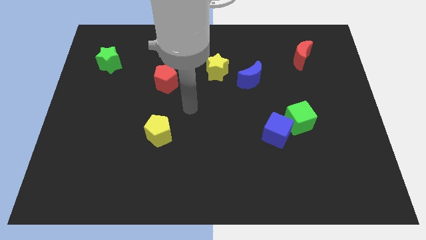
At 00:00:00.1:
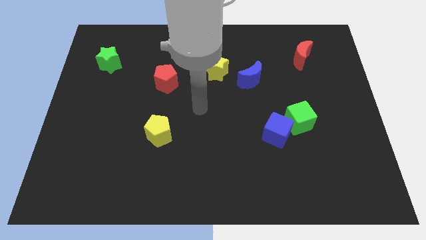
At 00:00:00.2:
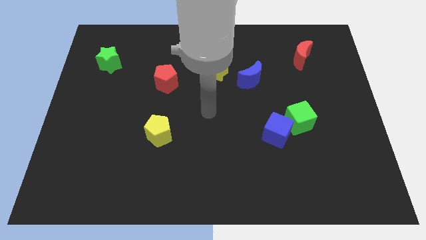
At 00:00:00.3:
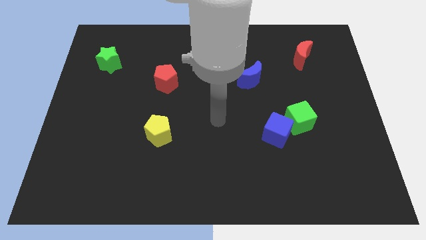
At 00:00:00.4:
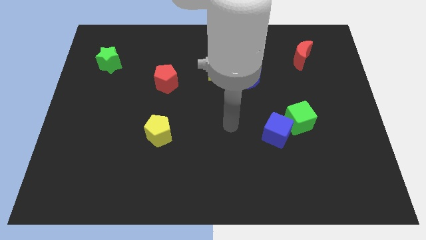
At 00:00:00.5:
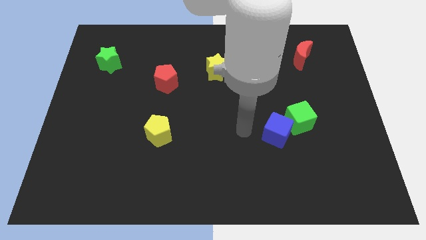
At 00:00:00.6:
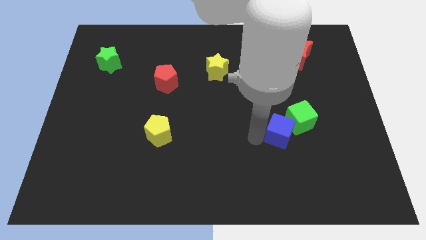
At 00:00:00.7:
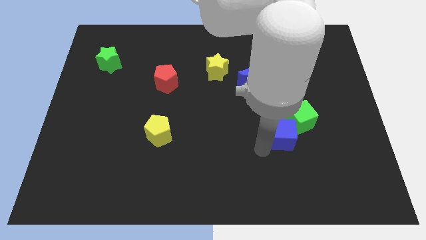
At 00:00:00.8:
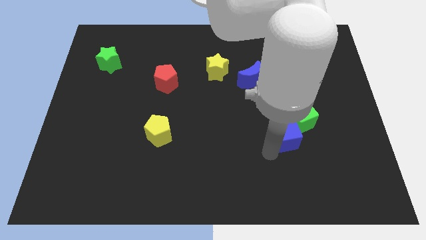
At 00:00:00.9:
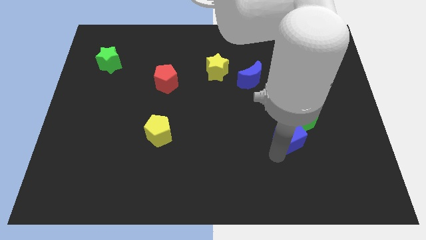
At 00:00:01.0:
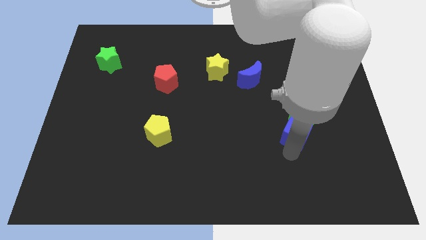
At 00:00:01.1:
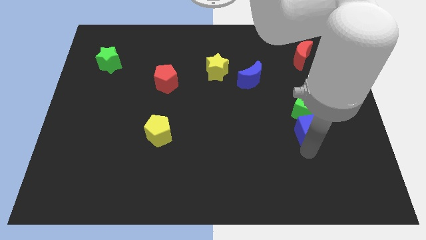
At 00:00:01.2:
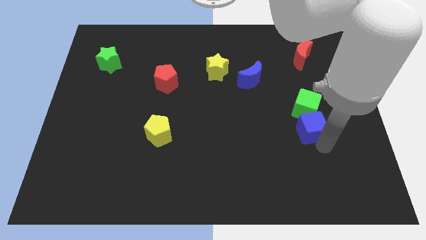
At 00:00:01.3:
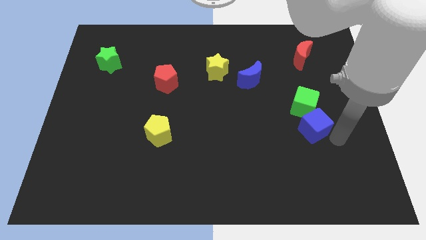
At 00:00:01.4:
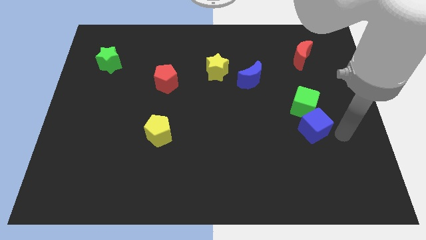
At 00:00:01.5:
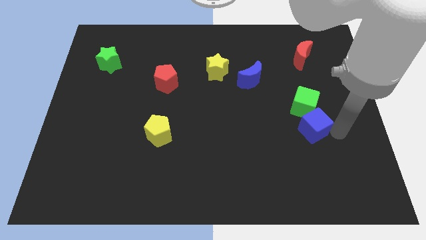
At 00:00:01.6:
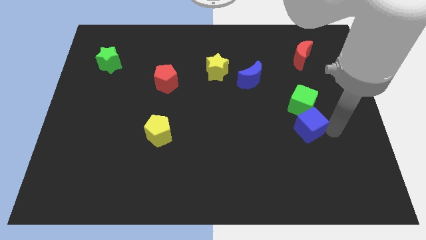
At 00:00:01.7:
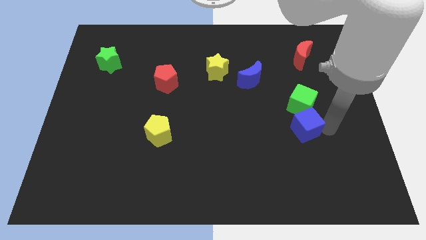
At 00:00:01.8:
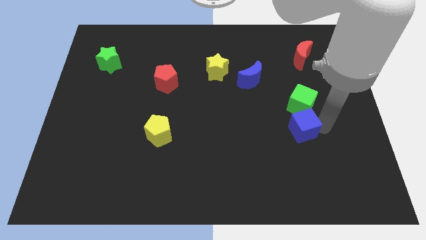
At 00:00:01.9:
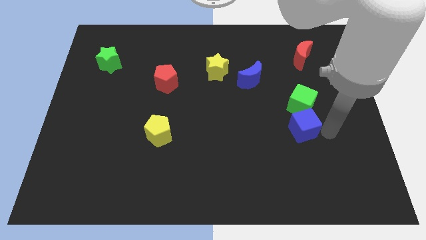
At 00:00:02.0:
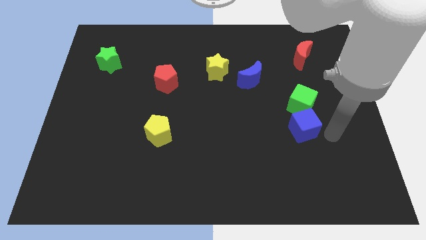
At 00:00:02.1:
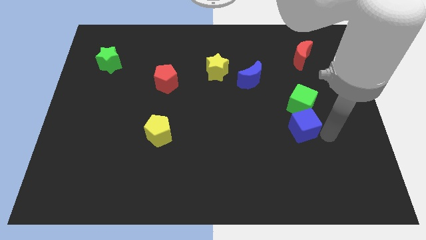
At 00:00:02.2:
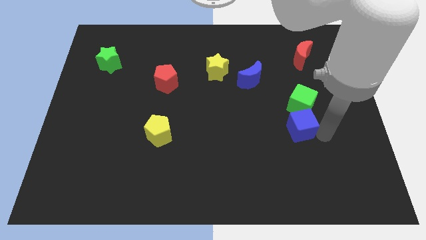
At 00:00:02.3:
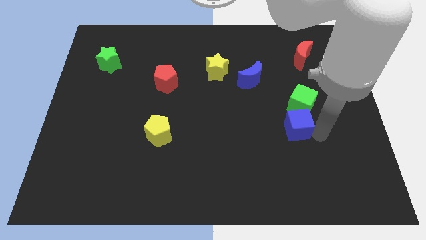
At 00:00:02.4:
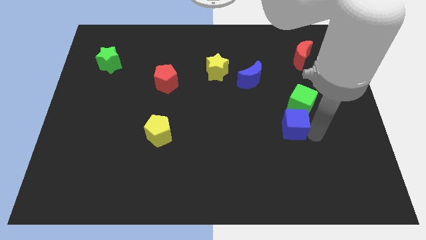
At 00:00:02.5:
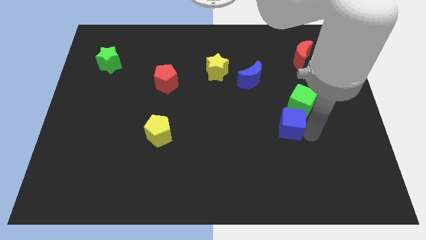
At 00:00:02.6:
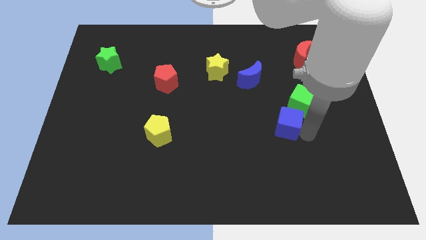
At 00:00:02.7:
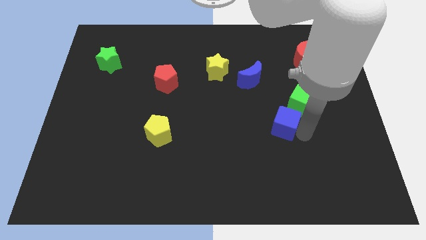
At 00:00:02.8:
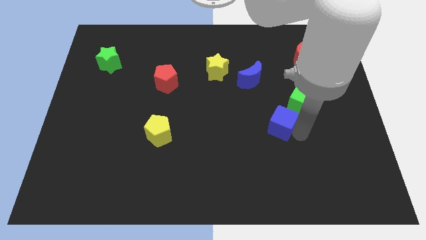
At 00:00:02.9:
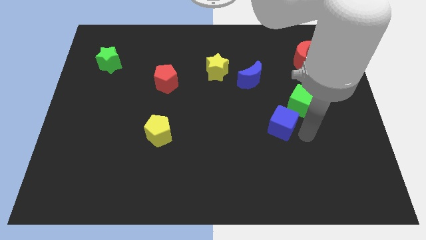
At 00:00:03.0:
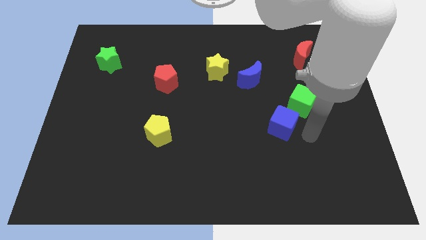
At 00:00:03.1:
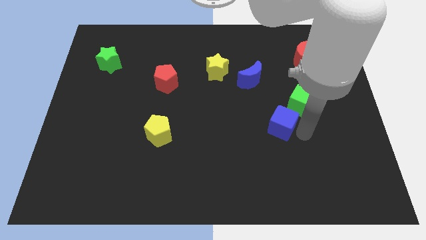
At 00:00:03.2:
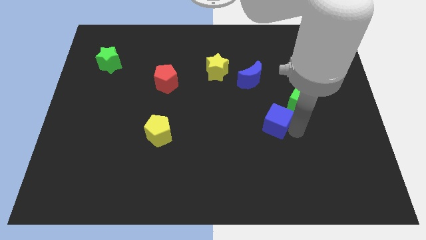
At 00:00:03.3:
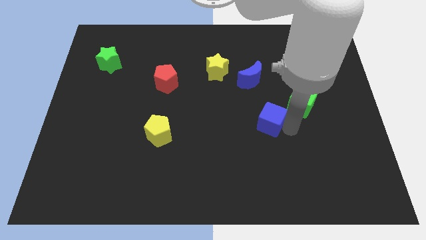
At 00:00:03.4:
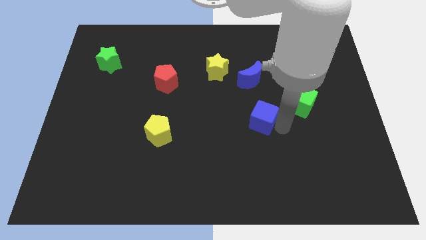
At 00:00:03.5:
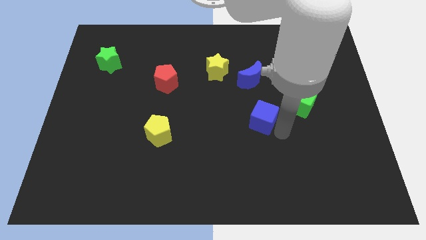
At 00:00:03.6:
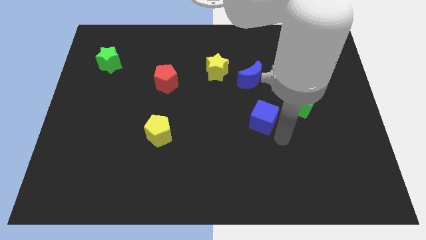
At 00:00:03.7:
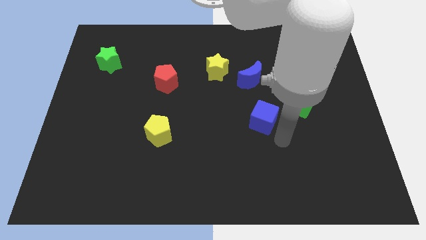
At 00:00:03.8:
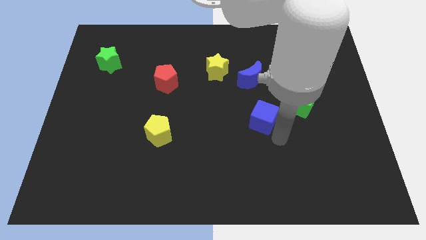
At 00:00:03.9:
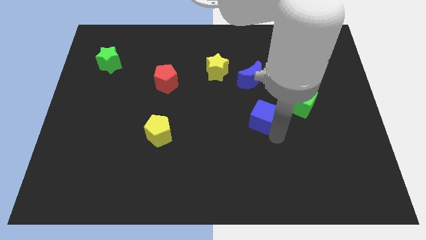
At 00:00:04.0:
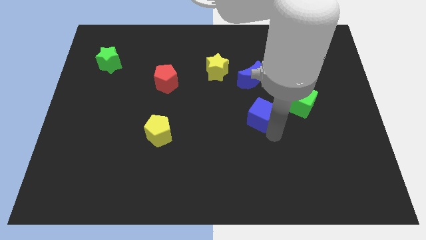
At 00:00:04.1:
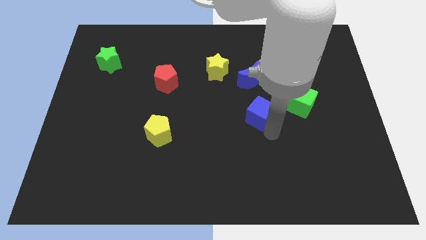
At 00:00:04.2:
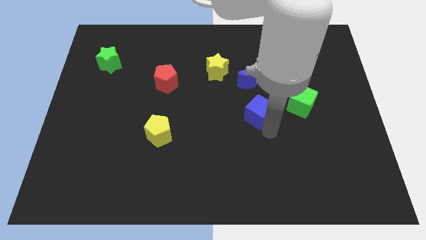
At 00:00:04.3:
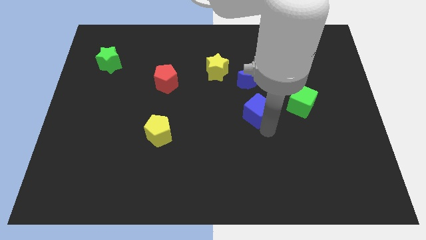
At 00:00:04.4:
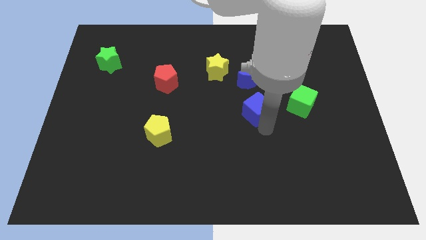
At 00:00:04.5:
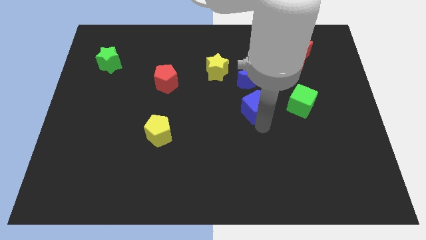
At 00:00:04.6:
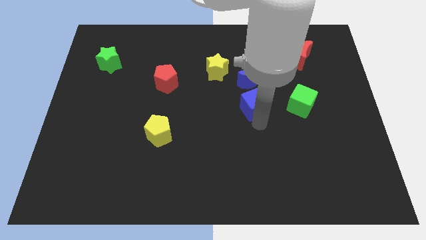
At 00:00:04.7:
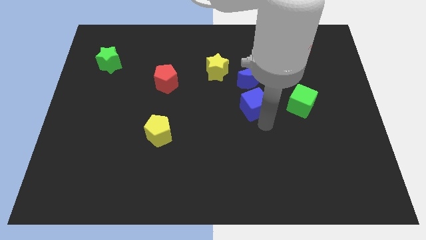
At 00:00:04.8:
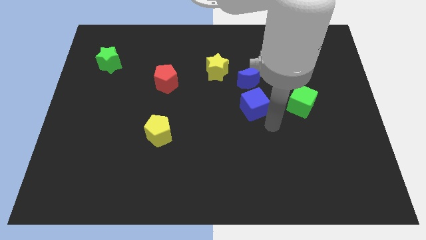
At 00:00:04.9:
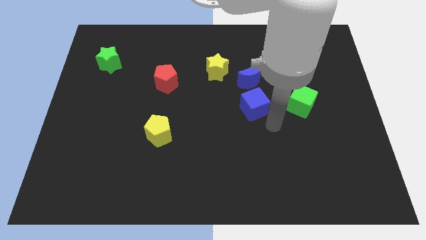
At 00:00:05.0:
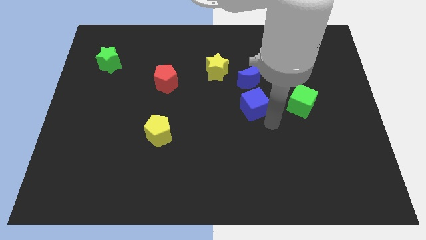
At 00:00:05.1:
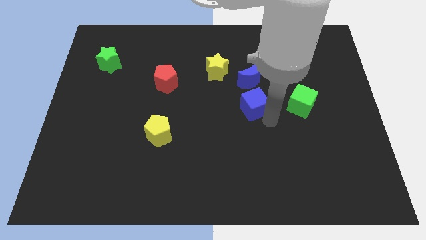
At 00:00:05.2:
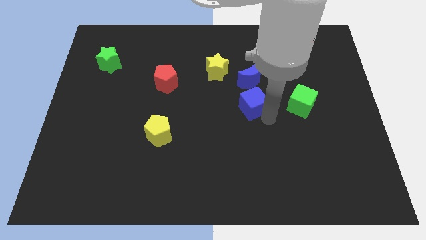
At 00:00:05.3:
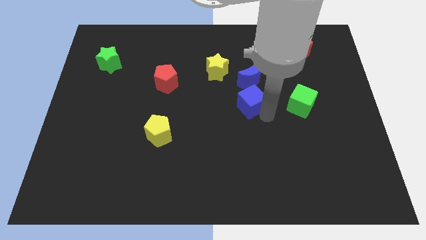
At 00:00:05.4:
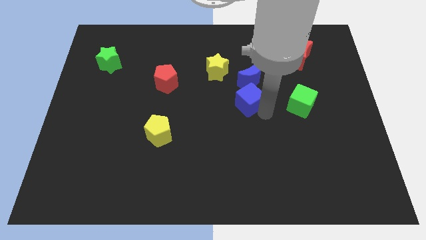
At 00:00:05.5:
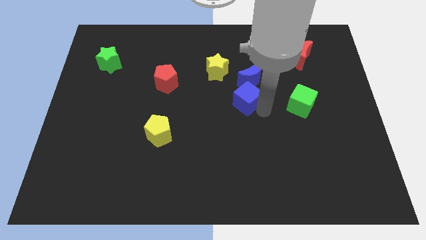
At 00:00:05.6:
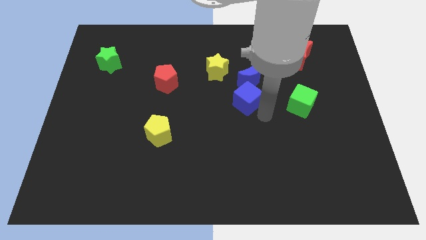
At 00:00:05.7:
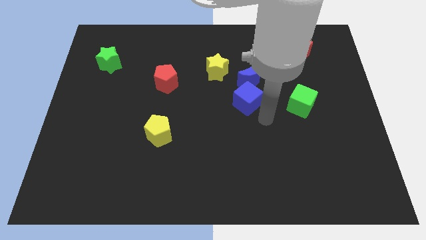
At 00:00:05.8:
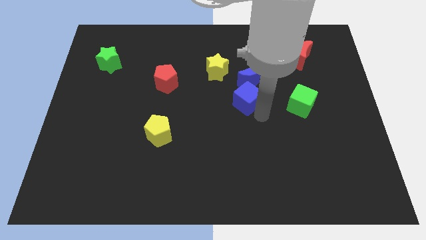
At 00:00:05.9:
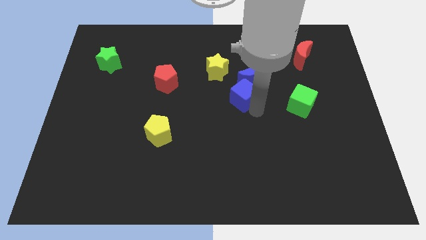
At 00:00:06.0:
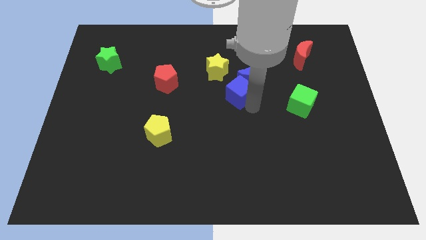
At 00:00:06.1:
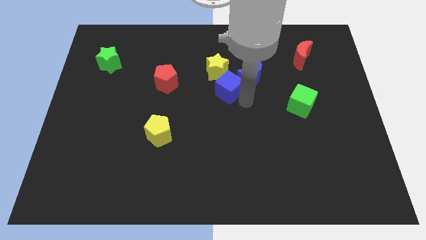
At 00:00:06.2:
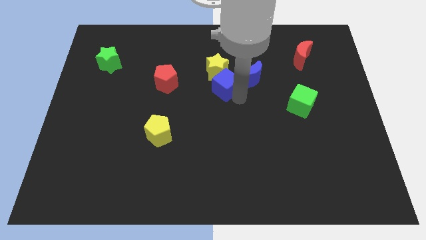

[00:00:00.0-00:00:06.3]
put the blue cube towards the yellow star

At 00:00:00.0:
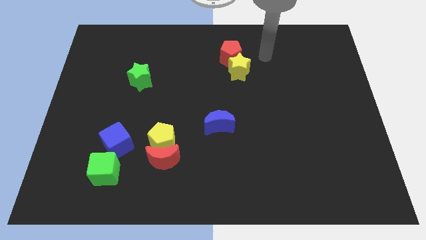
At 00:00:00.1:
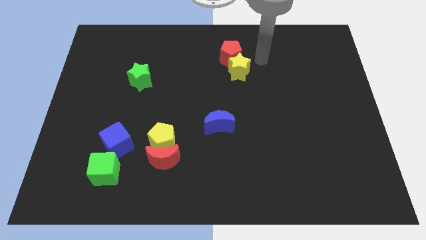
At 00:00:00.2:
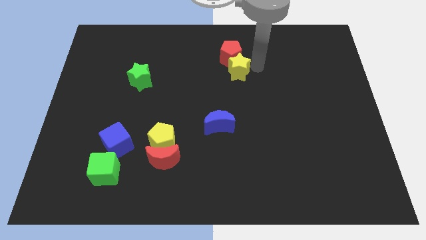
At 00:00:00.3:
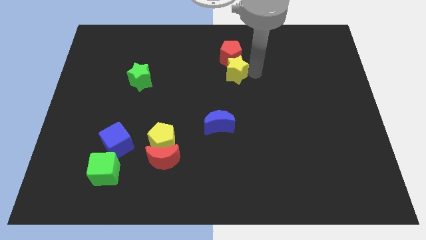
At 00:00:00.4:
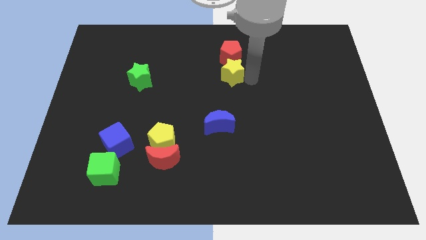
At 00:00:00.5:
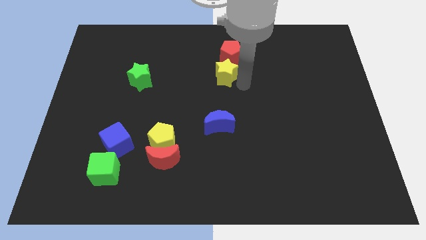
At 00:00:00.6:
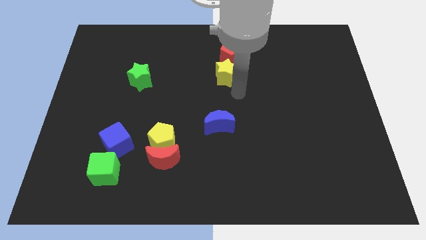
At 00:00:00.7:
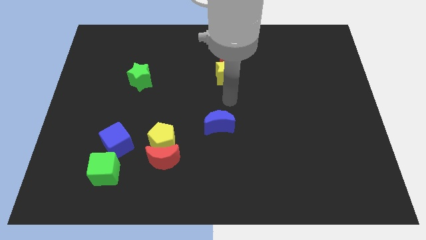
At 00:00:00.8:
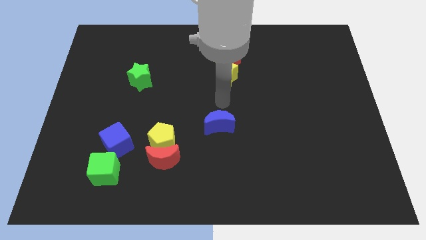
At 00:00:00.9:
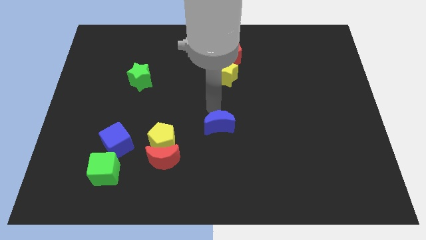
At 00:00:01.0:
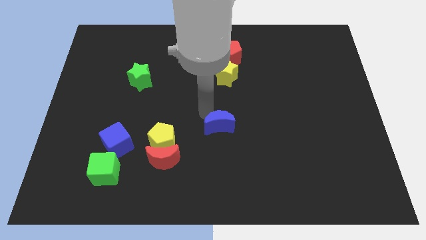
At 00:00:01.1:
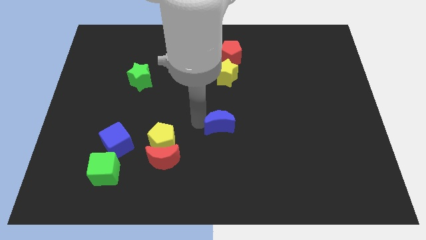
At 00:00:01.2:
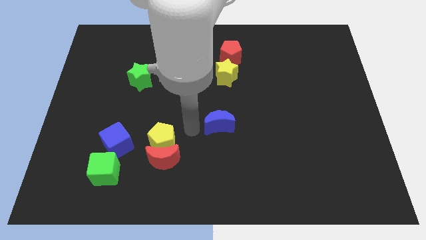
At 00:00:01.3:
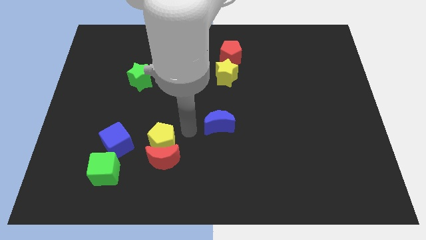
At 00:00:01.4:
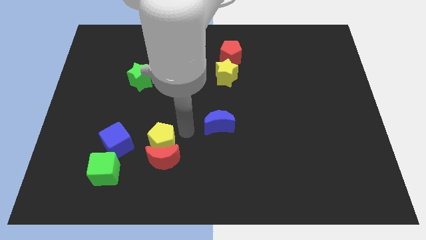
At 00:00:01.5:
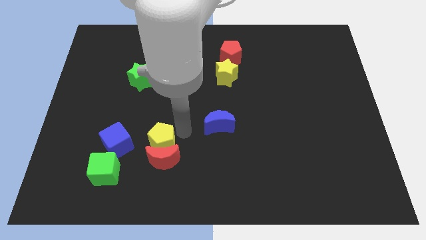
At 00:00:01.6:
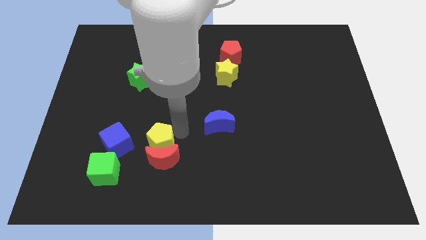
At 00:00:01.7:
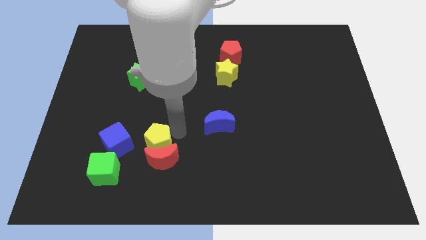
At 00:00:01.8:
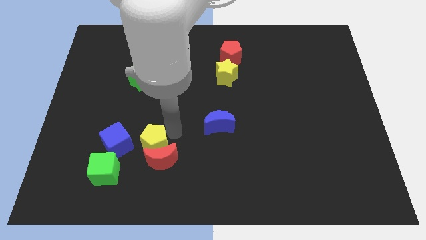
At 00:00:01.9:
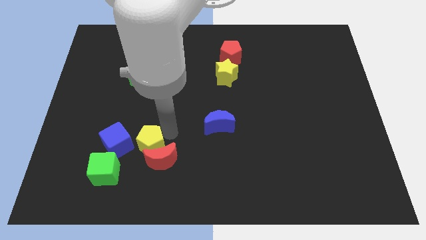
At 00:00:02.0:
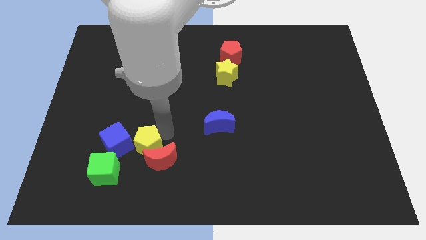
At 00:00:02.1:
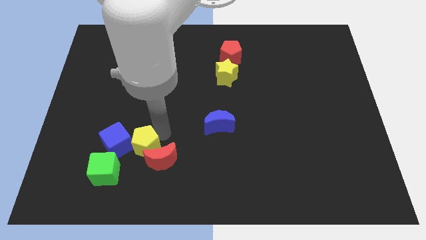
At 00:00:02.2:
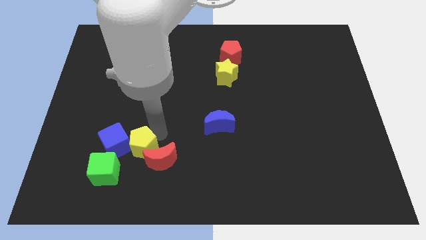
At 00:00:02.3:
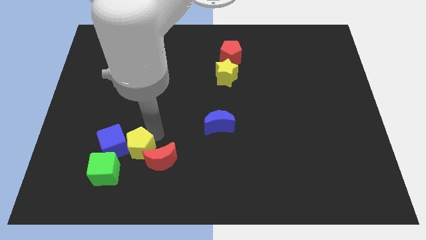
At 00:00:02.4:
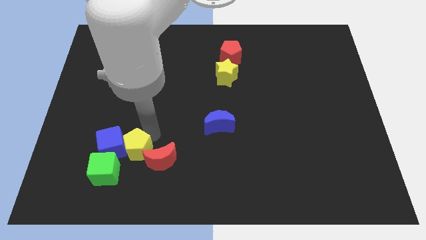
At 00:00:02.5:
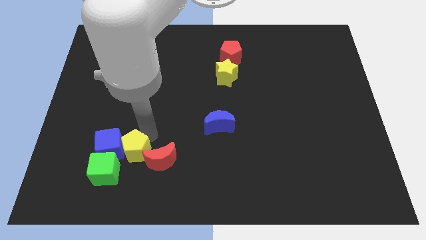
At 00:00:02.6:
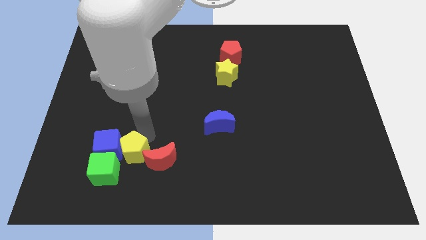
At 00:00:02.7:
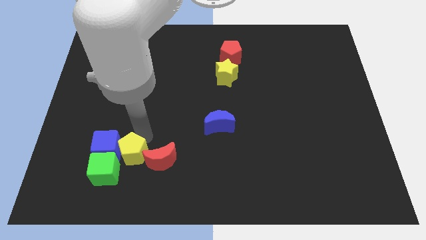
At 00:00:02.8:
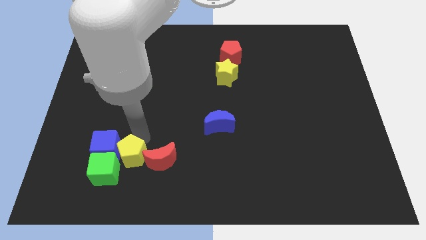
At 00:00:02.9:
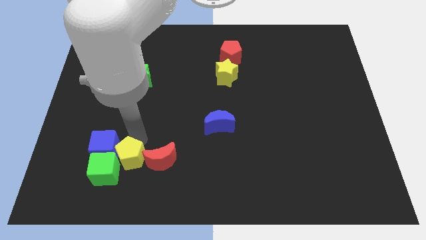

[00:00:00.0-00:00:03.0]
push the yellow pentagon next to the green cube
